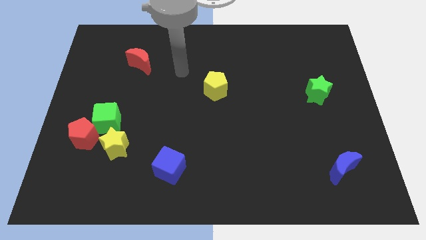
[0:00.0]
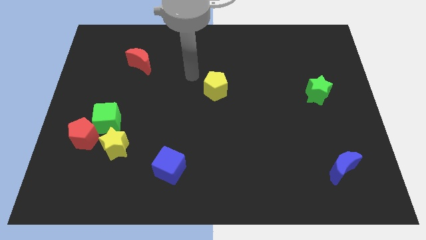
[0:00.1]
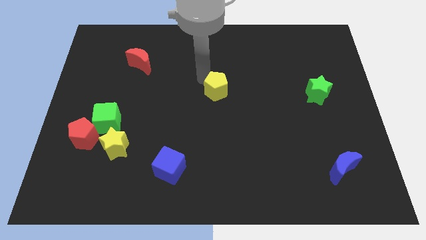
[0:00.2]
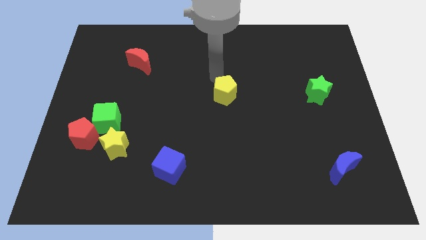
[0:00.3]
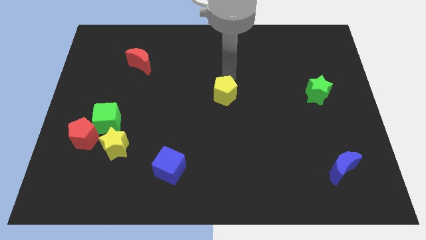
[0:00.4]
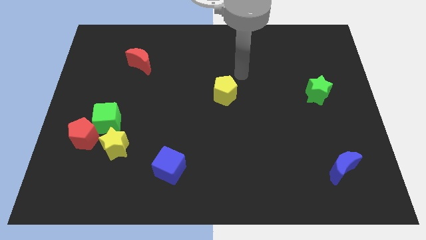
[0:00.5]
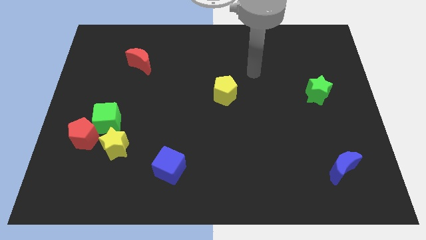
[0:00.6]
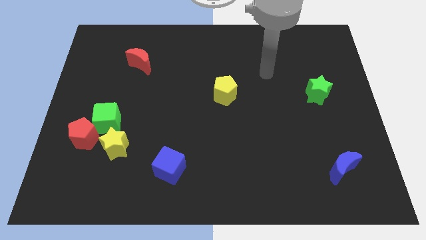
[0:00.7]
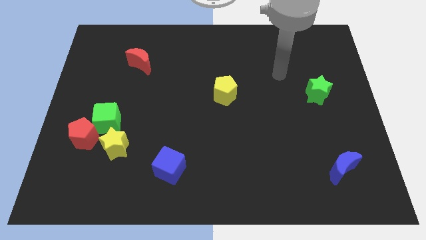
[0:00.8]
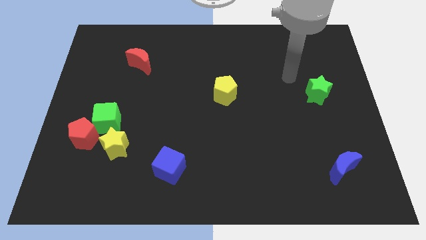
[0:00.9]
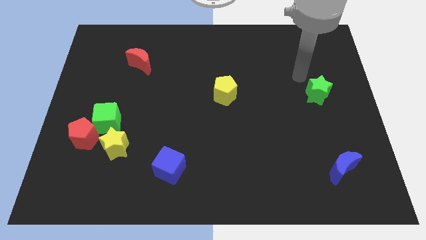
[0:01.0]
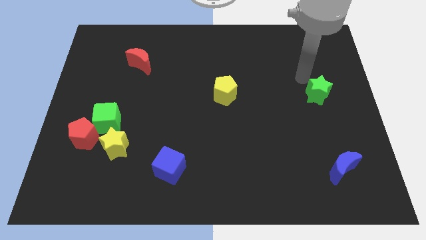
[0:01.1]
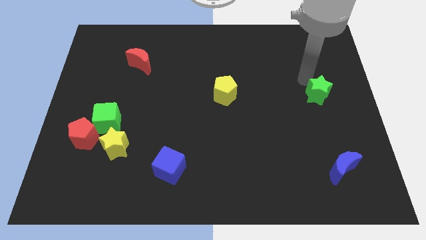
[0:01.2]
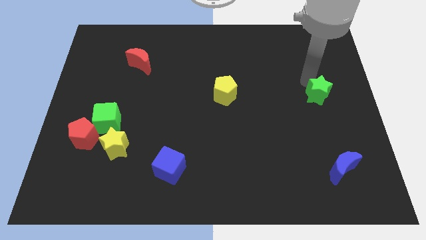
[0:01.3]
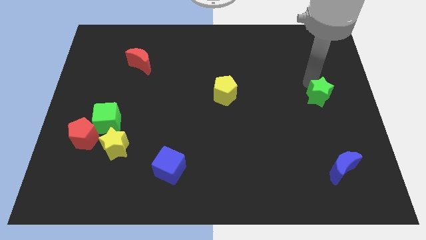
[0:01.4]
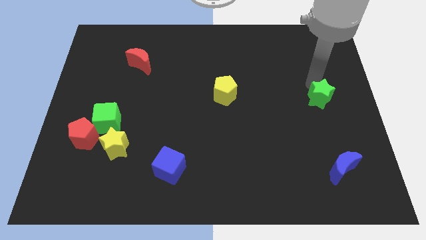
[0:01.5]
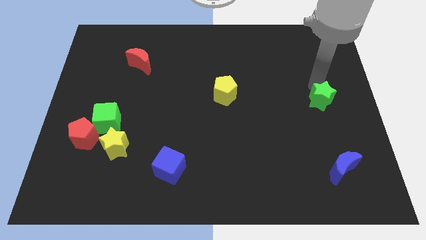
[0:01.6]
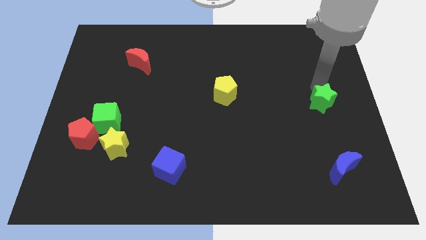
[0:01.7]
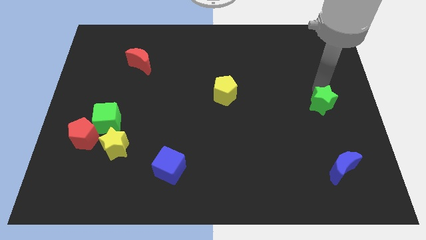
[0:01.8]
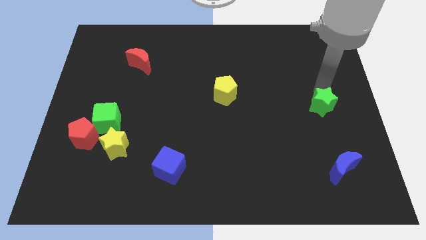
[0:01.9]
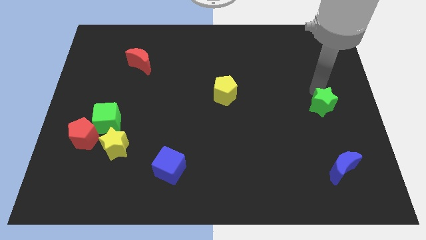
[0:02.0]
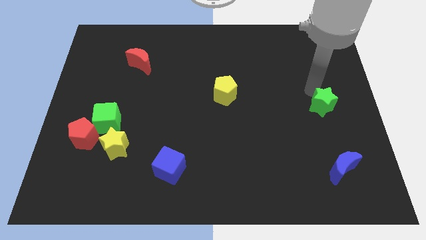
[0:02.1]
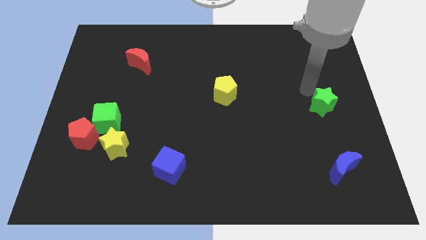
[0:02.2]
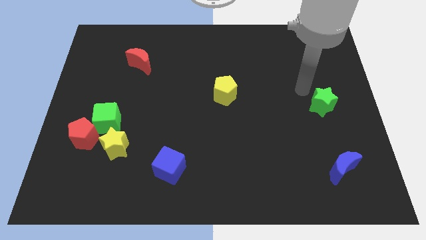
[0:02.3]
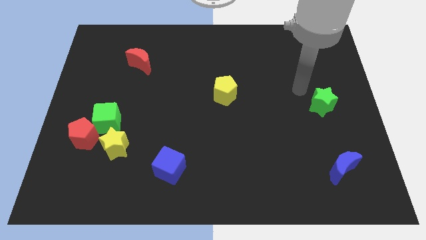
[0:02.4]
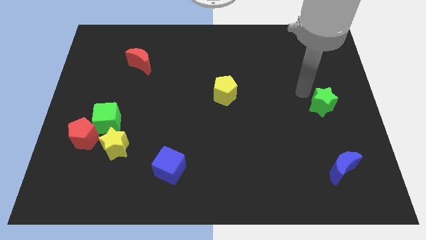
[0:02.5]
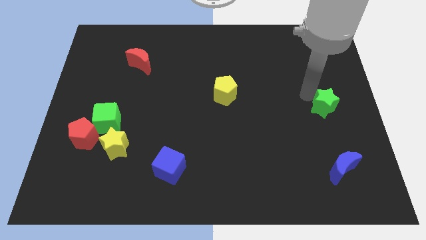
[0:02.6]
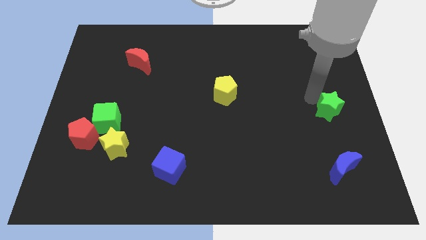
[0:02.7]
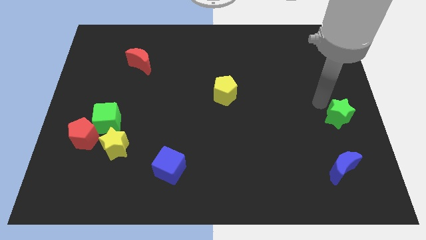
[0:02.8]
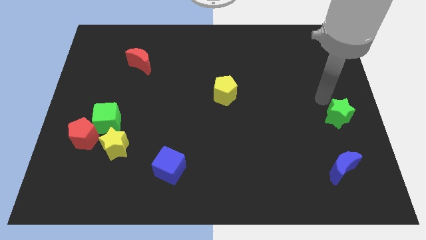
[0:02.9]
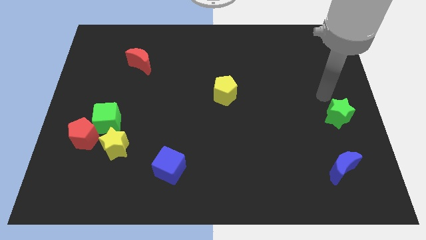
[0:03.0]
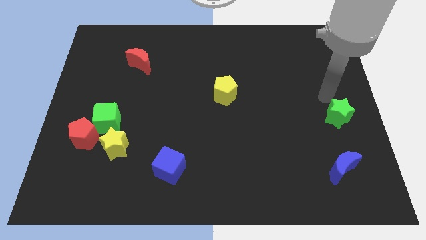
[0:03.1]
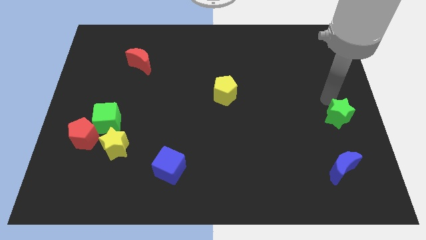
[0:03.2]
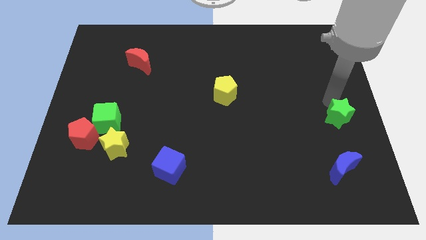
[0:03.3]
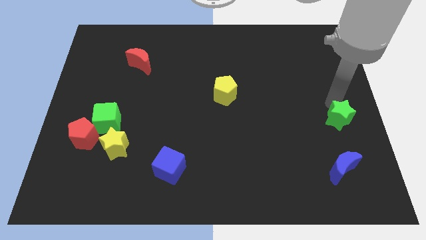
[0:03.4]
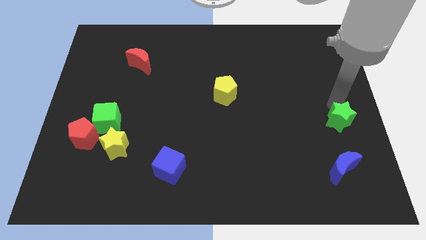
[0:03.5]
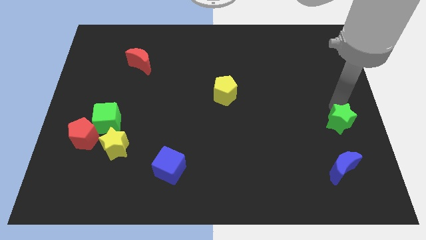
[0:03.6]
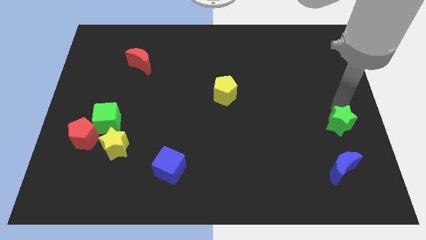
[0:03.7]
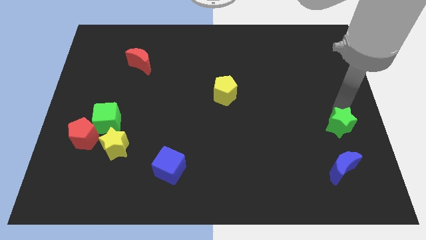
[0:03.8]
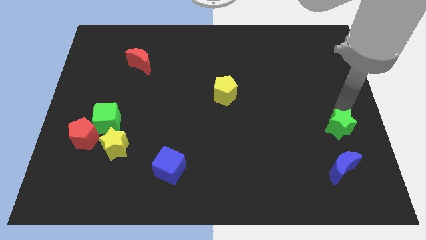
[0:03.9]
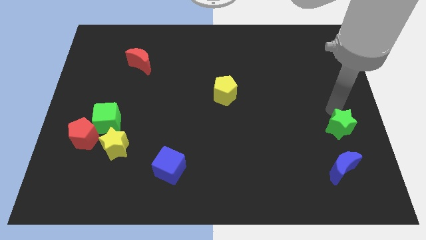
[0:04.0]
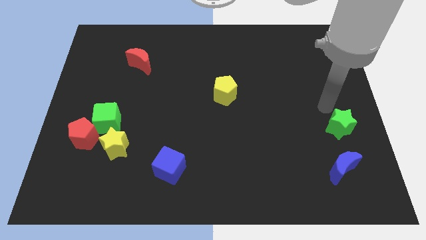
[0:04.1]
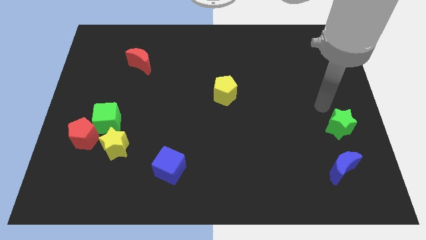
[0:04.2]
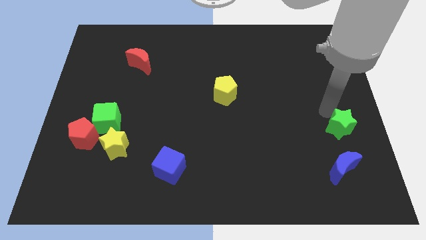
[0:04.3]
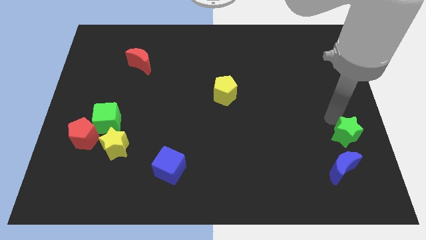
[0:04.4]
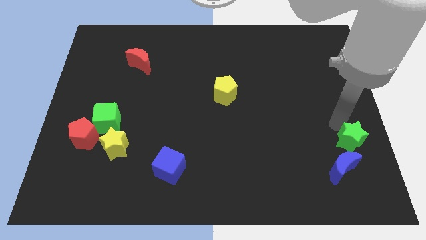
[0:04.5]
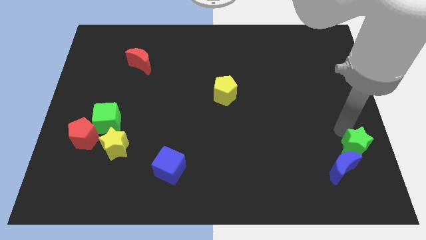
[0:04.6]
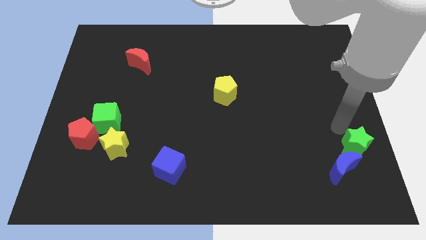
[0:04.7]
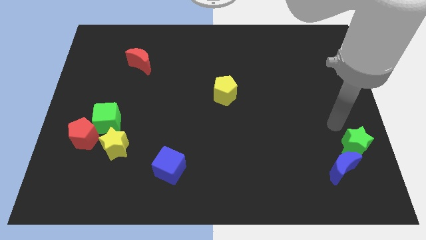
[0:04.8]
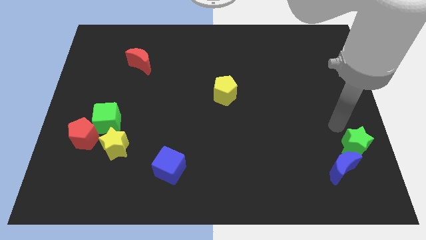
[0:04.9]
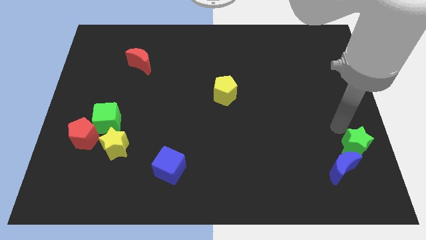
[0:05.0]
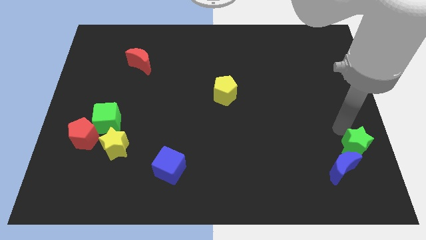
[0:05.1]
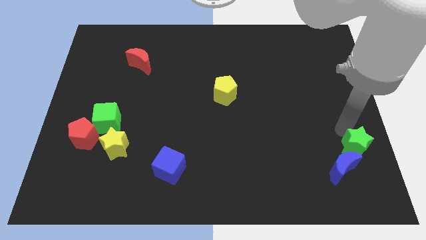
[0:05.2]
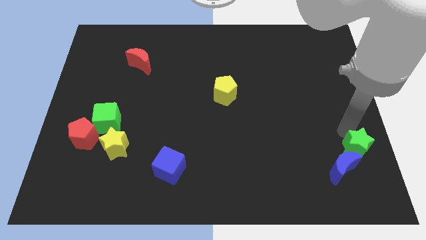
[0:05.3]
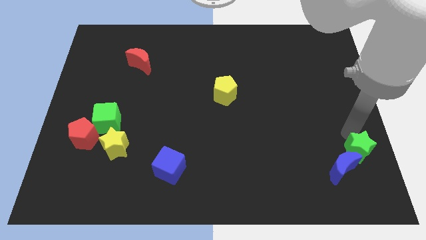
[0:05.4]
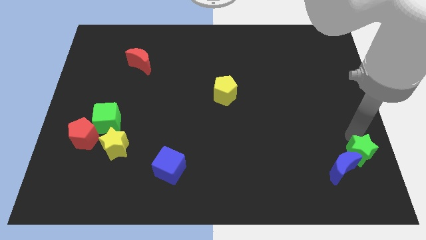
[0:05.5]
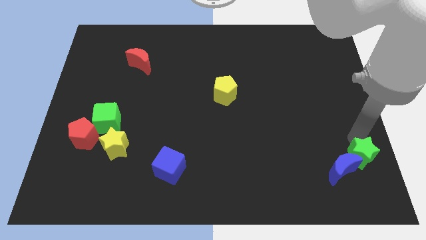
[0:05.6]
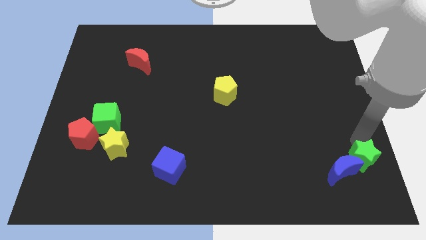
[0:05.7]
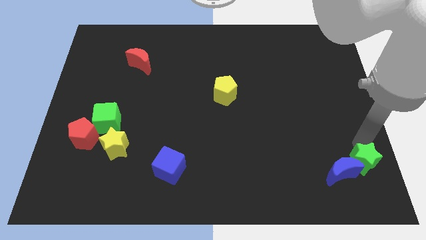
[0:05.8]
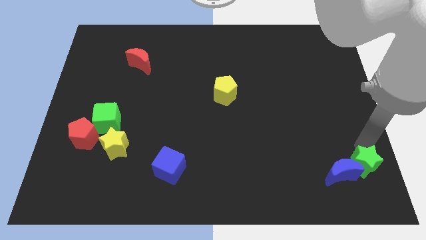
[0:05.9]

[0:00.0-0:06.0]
push the green star to the bottom right

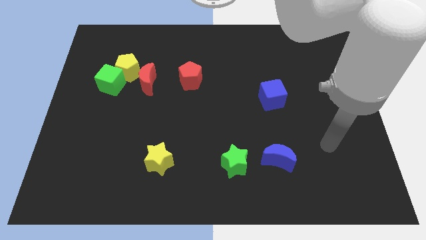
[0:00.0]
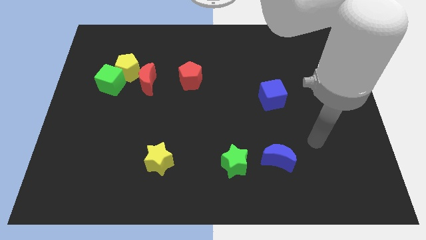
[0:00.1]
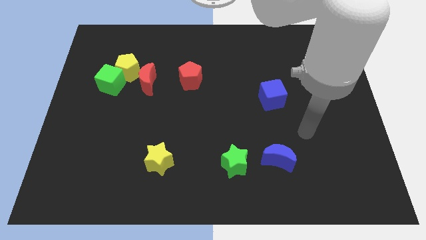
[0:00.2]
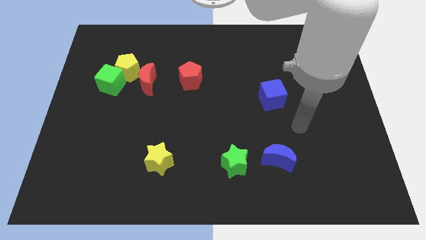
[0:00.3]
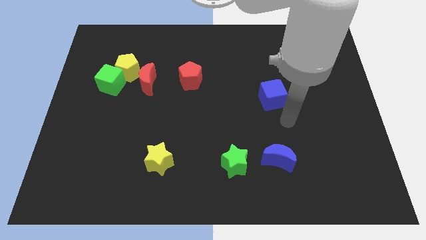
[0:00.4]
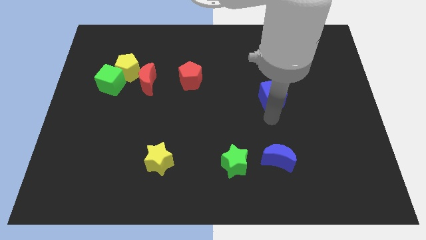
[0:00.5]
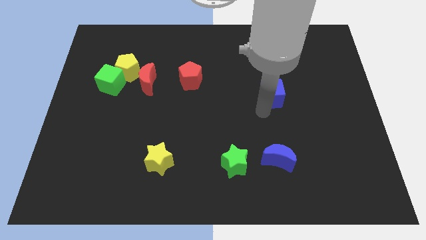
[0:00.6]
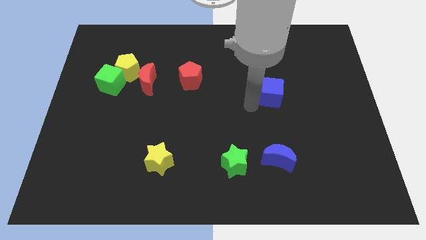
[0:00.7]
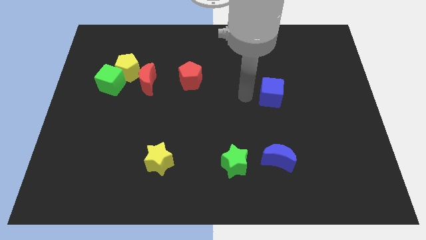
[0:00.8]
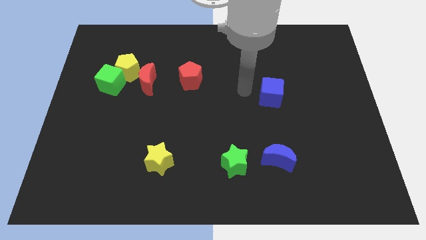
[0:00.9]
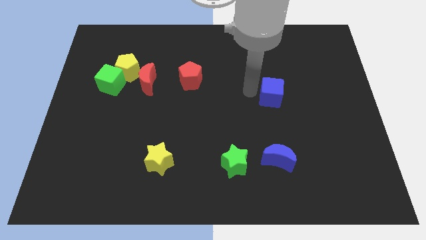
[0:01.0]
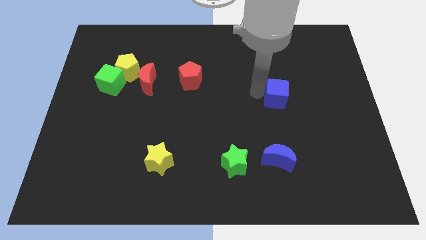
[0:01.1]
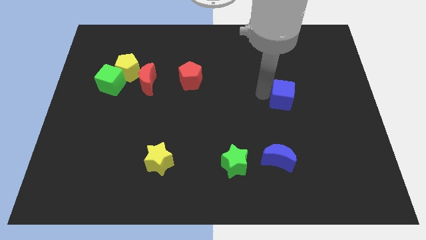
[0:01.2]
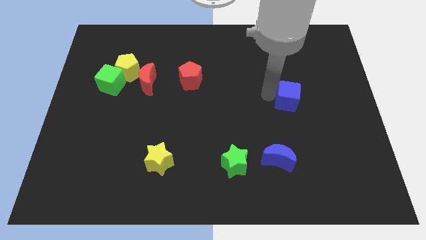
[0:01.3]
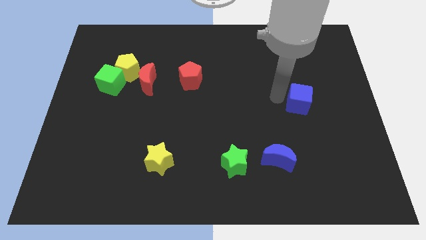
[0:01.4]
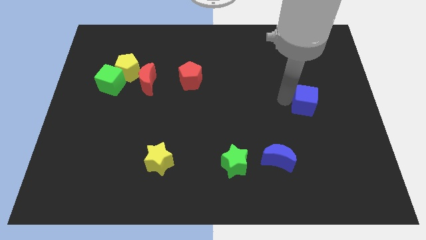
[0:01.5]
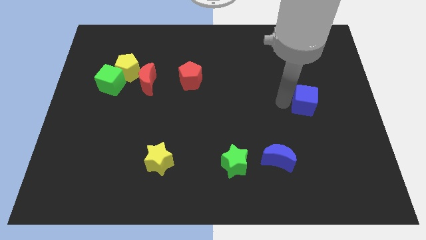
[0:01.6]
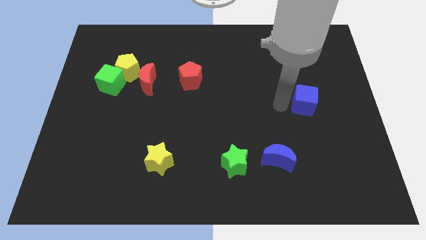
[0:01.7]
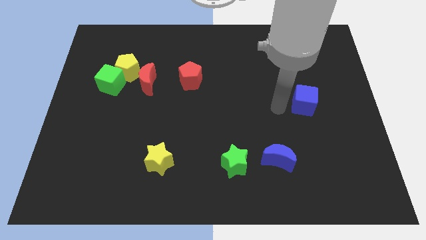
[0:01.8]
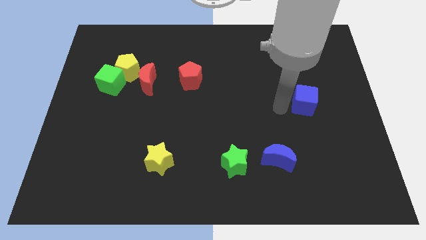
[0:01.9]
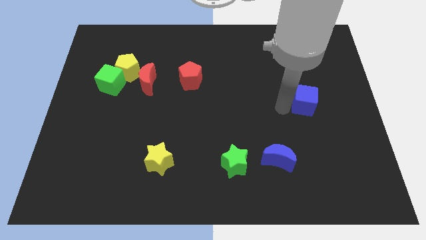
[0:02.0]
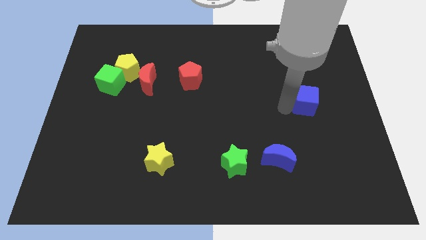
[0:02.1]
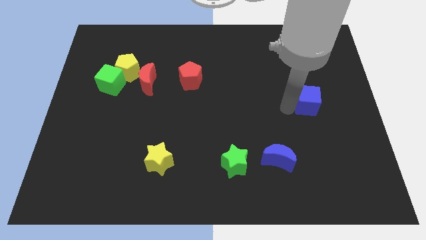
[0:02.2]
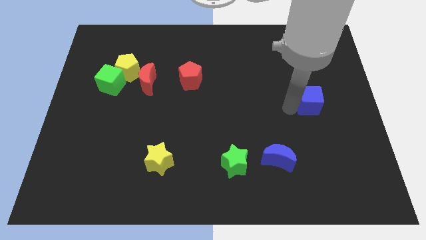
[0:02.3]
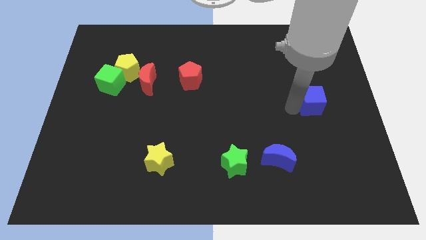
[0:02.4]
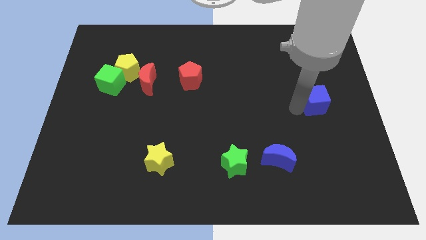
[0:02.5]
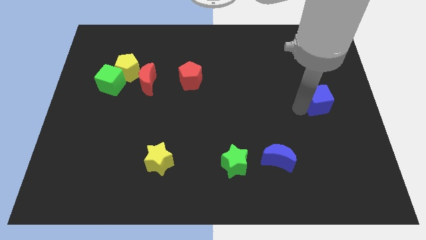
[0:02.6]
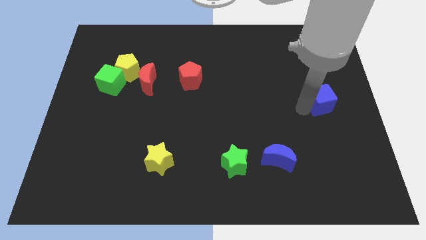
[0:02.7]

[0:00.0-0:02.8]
put the blue cube to the right side of the board
